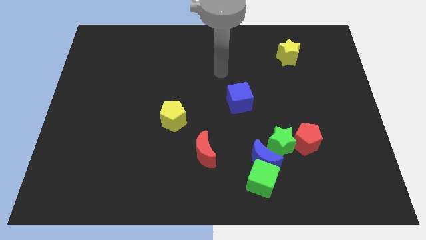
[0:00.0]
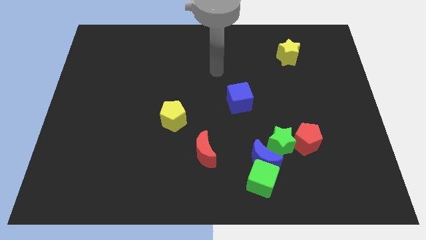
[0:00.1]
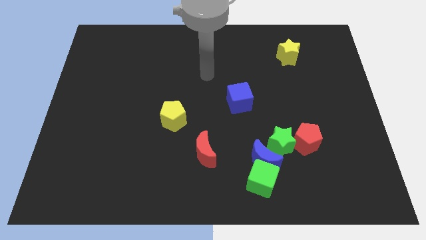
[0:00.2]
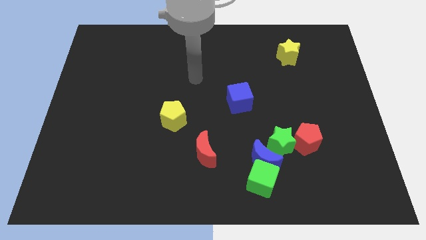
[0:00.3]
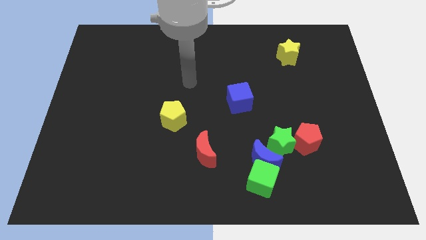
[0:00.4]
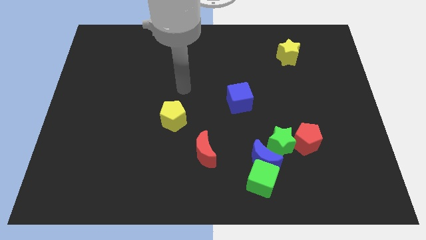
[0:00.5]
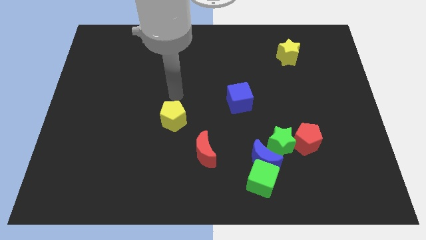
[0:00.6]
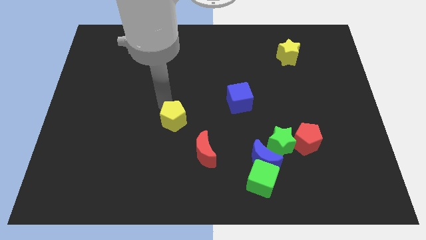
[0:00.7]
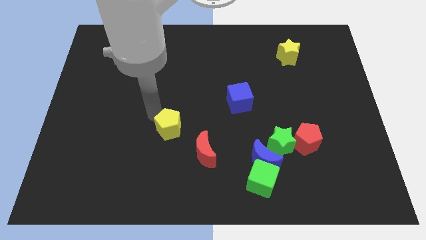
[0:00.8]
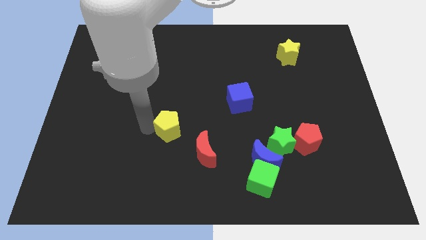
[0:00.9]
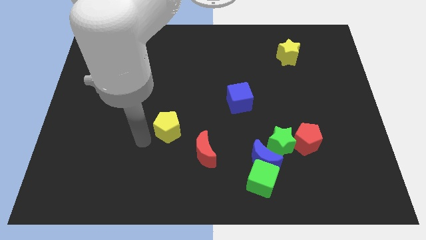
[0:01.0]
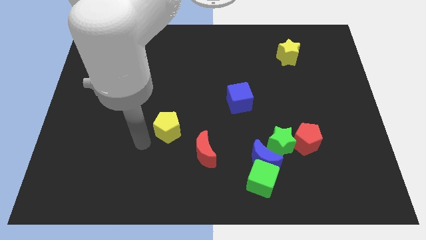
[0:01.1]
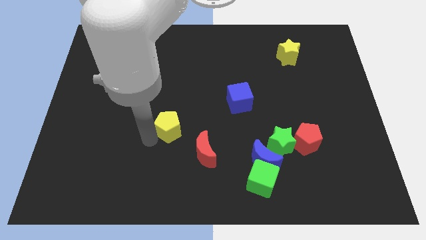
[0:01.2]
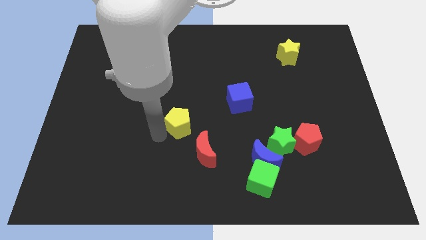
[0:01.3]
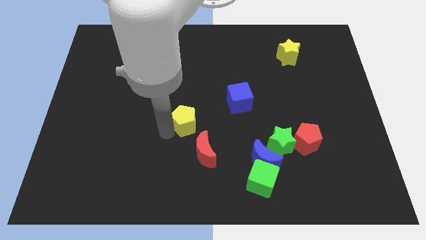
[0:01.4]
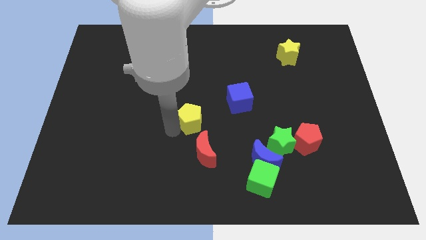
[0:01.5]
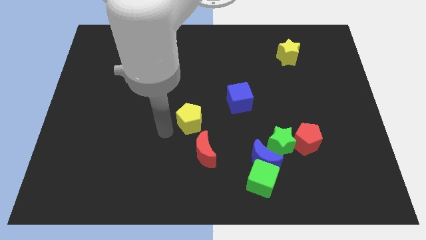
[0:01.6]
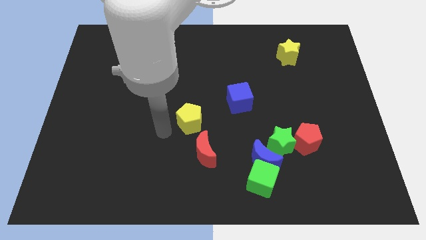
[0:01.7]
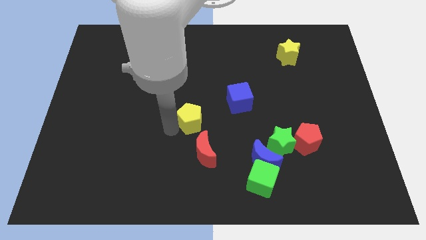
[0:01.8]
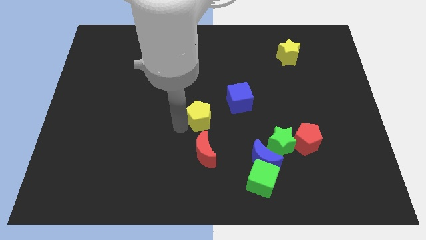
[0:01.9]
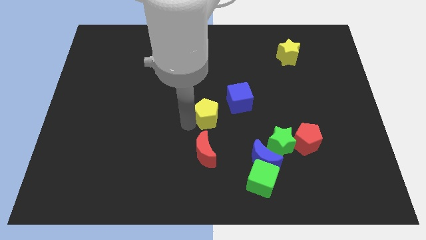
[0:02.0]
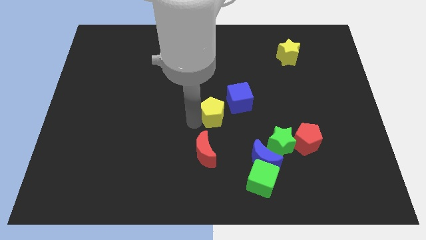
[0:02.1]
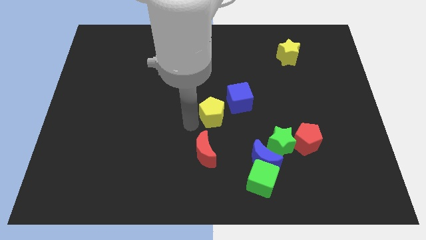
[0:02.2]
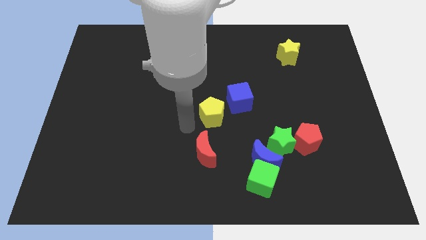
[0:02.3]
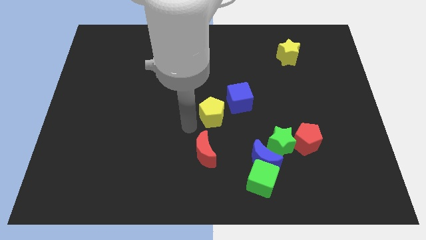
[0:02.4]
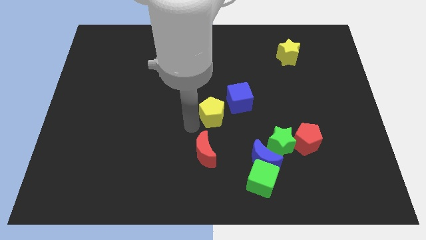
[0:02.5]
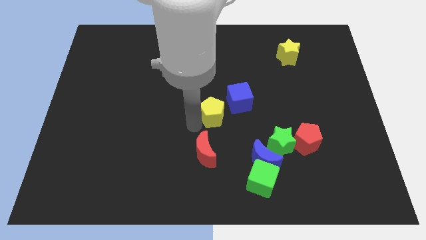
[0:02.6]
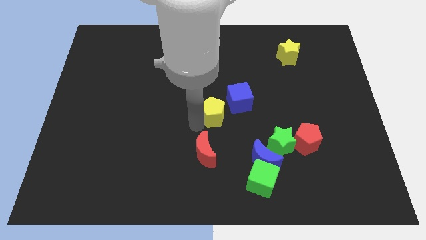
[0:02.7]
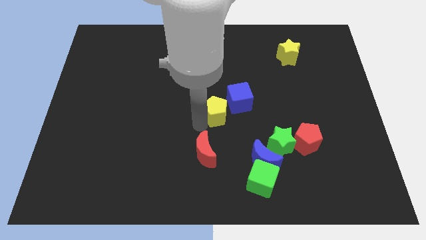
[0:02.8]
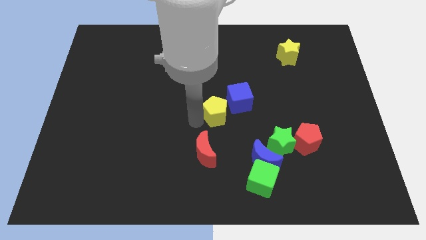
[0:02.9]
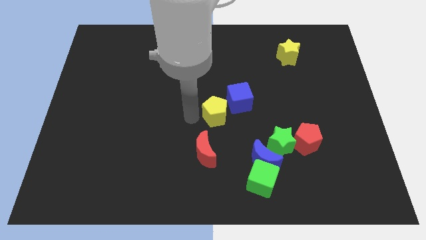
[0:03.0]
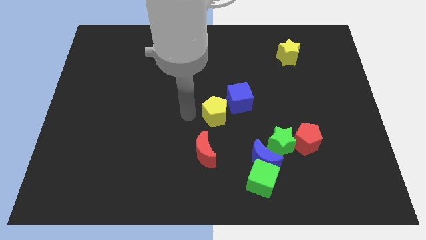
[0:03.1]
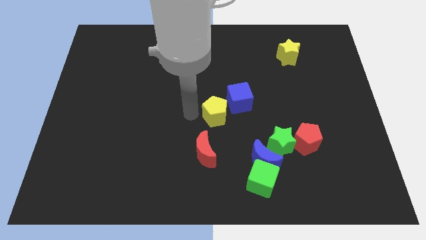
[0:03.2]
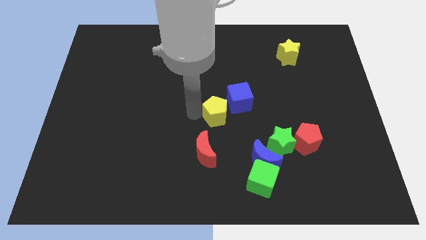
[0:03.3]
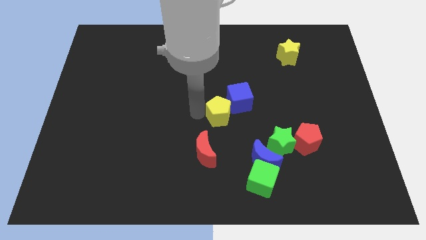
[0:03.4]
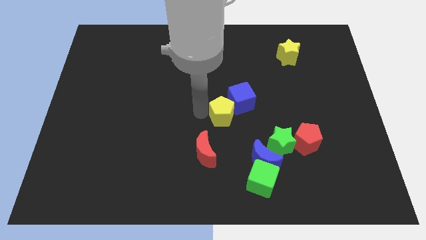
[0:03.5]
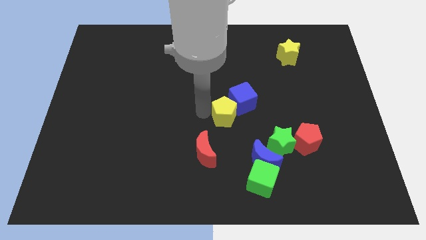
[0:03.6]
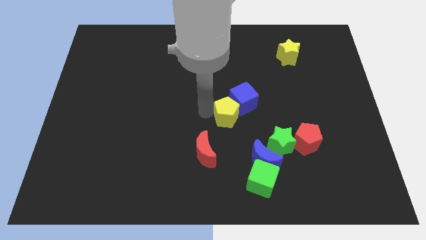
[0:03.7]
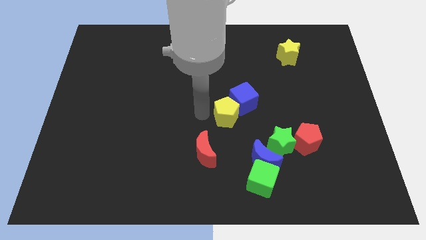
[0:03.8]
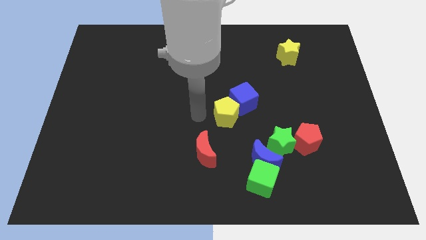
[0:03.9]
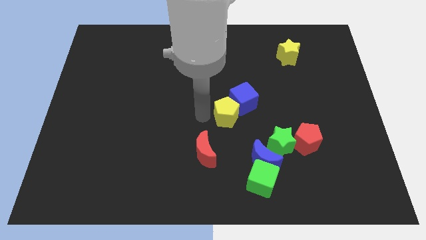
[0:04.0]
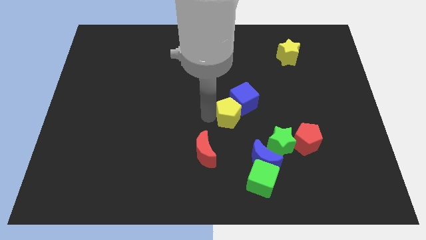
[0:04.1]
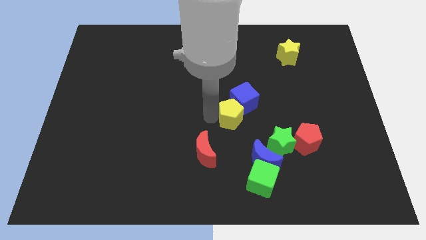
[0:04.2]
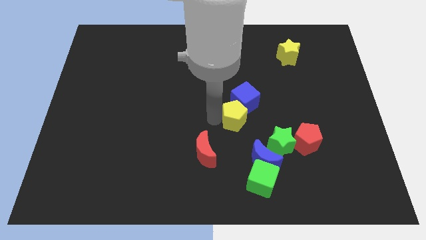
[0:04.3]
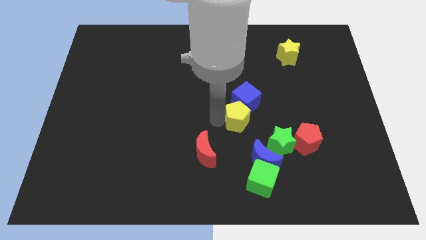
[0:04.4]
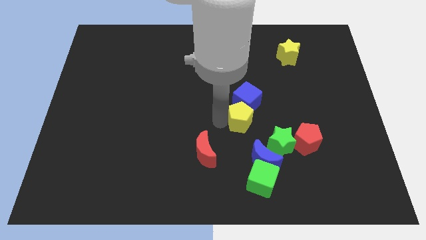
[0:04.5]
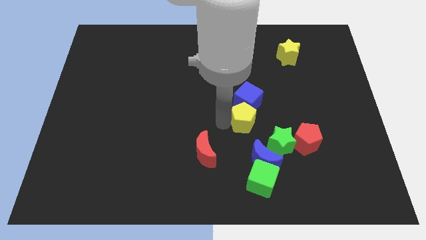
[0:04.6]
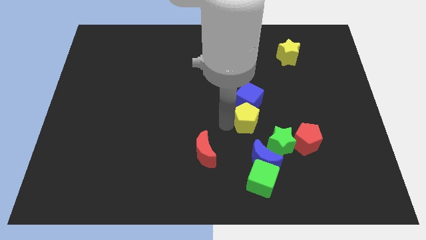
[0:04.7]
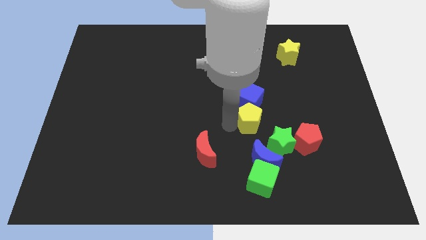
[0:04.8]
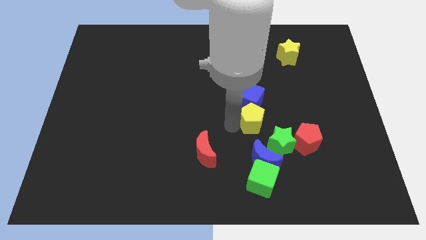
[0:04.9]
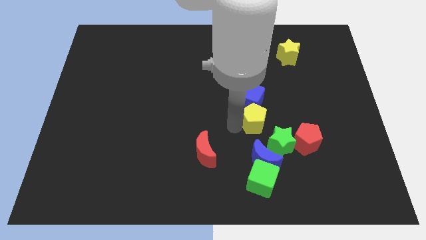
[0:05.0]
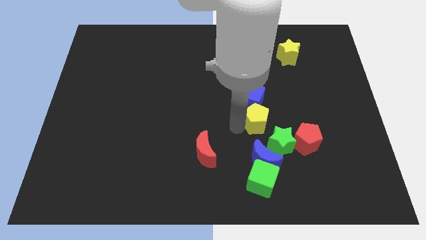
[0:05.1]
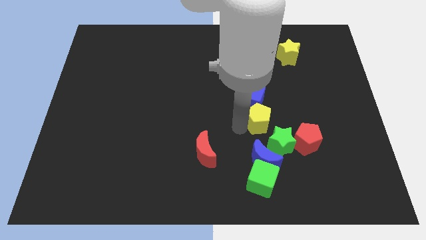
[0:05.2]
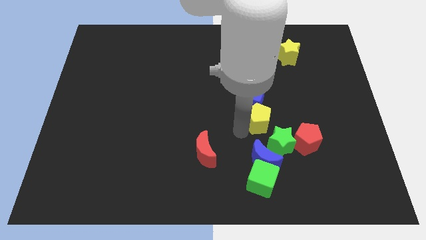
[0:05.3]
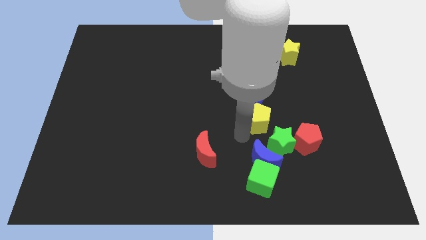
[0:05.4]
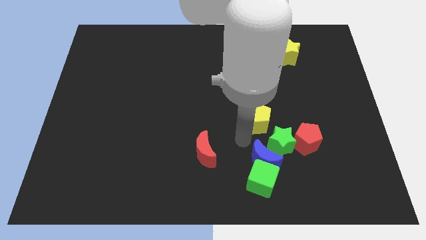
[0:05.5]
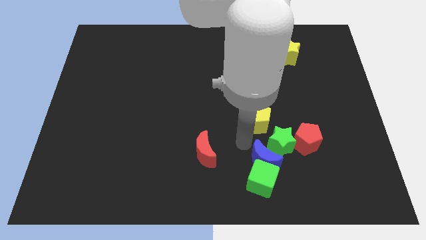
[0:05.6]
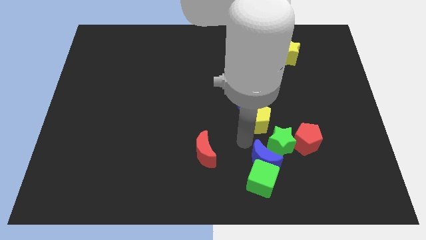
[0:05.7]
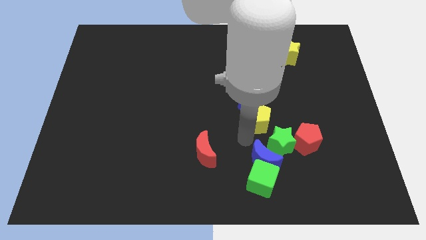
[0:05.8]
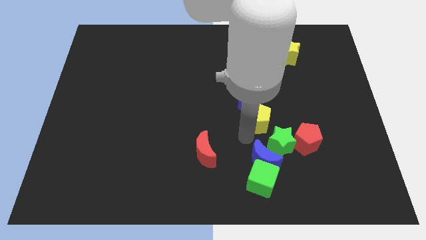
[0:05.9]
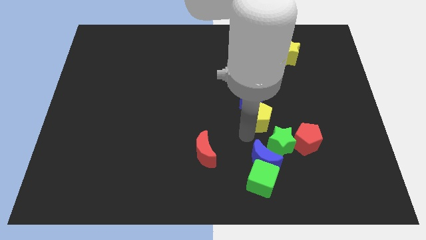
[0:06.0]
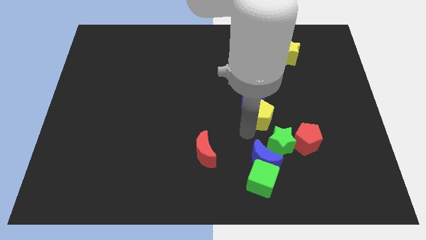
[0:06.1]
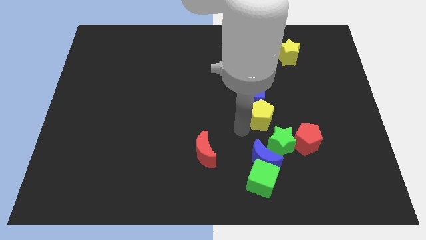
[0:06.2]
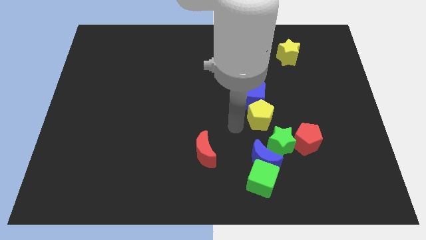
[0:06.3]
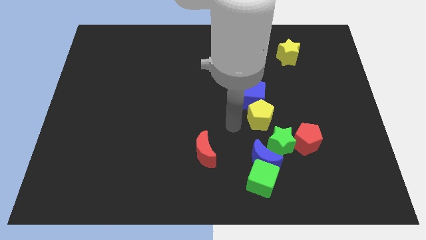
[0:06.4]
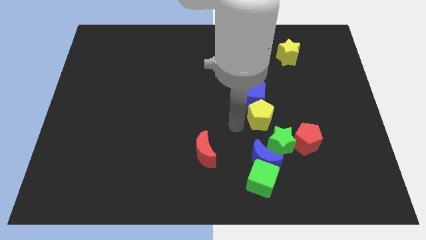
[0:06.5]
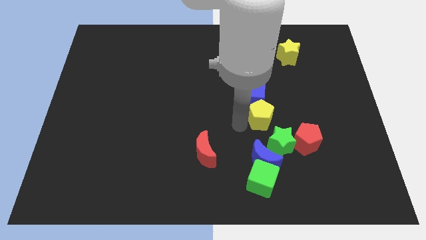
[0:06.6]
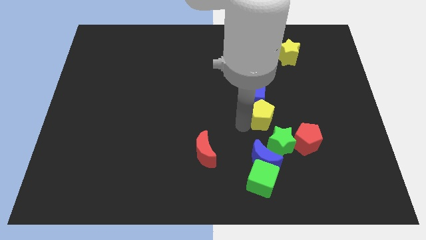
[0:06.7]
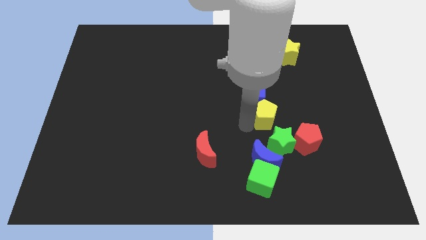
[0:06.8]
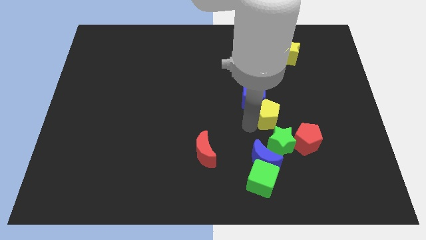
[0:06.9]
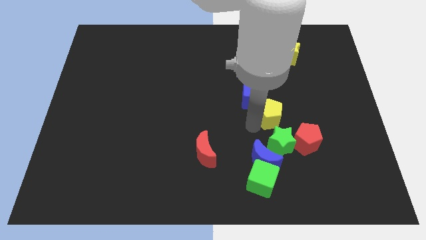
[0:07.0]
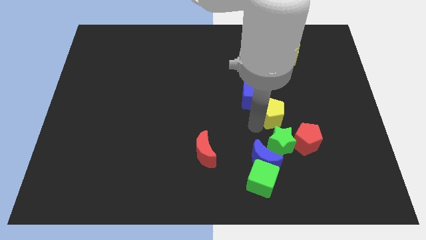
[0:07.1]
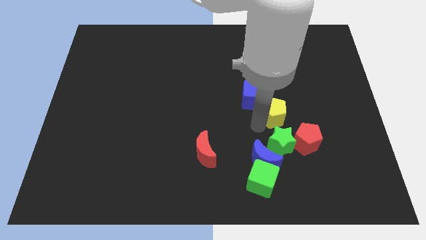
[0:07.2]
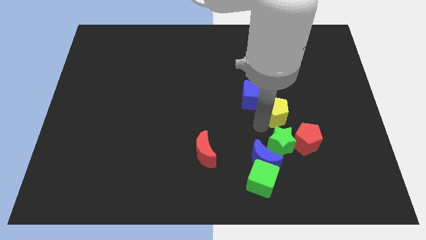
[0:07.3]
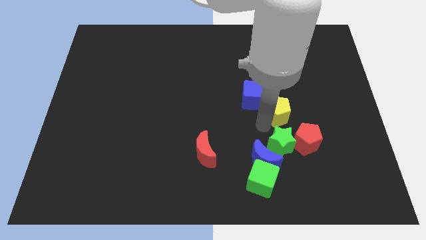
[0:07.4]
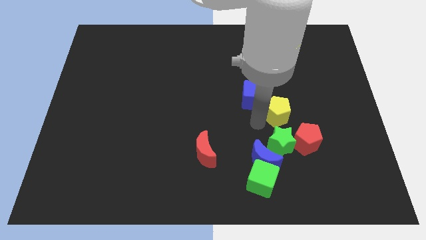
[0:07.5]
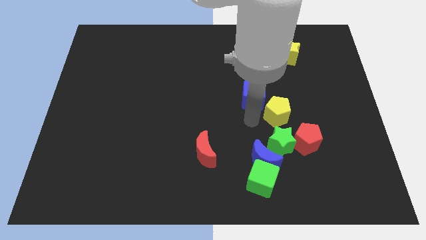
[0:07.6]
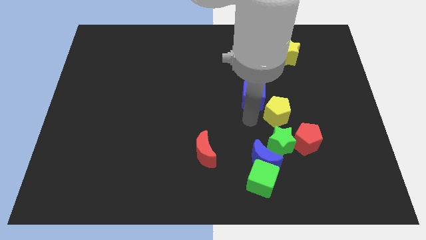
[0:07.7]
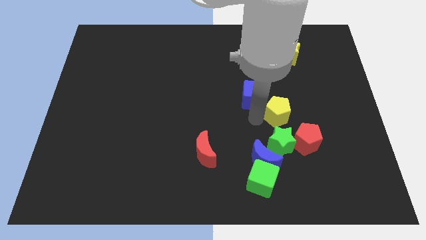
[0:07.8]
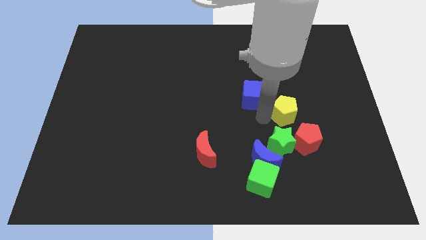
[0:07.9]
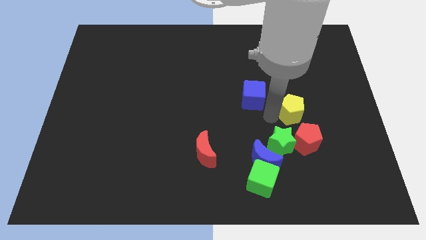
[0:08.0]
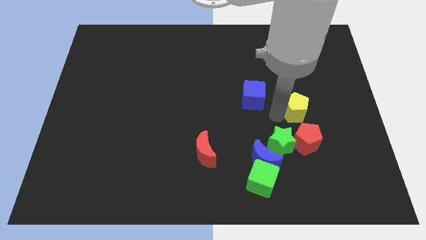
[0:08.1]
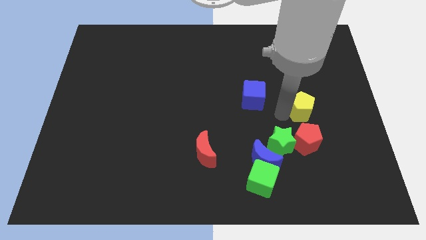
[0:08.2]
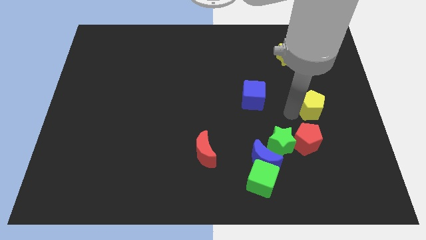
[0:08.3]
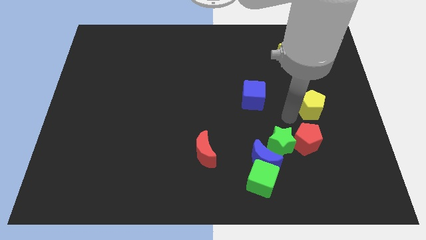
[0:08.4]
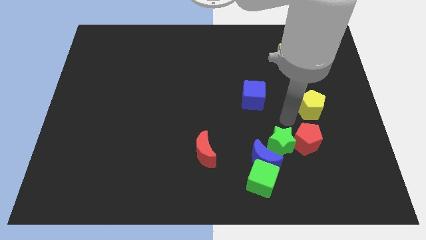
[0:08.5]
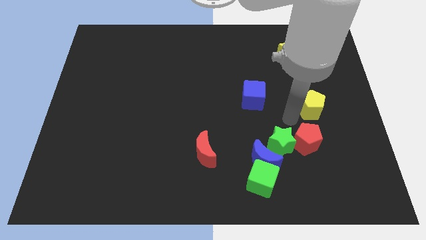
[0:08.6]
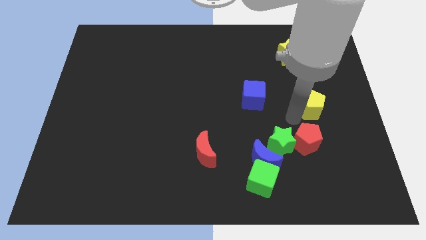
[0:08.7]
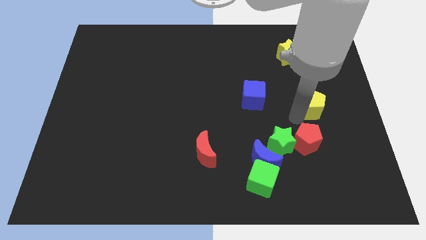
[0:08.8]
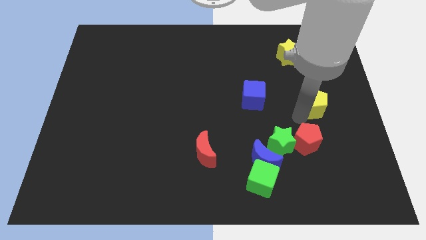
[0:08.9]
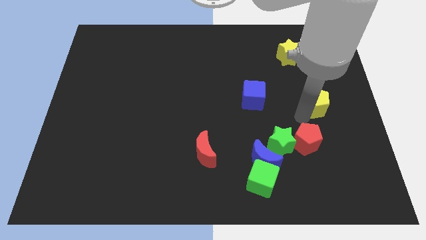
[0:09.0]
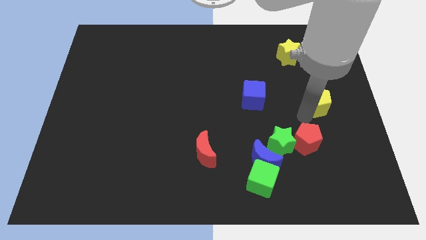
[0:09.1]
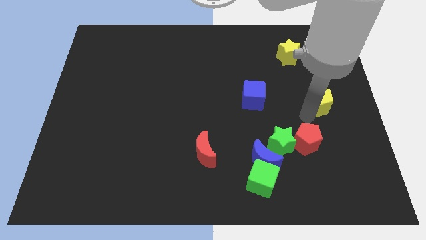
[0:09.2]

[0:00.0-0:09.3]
push the yellow pentagon to the center right
